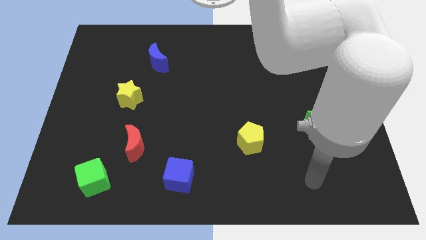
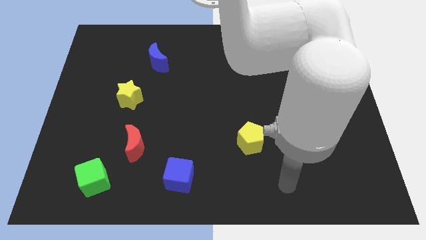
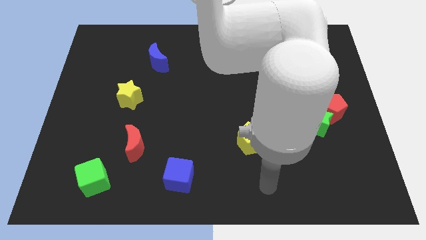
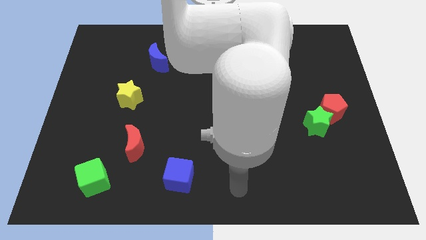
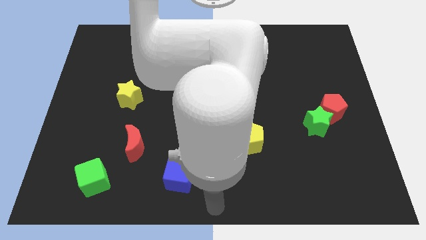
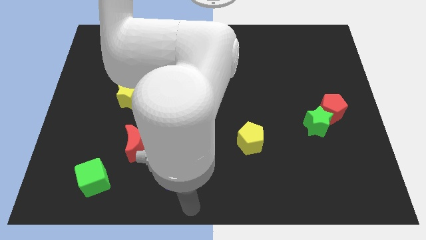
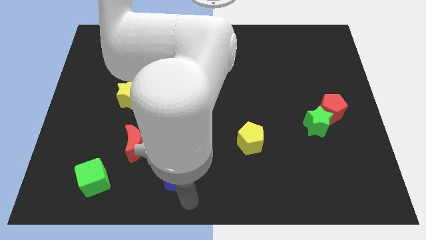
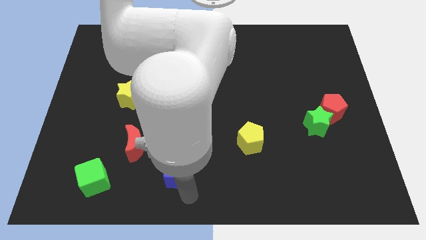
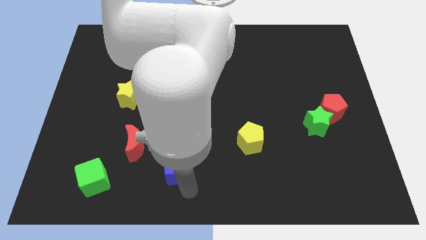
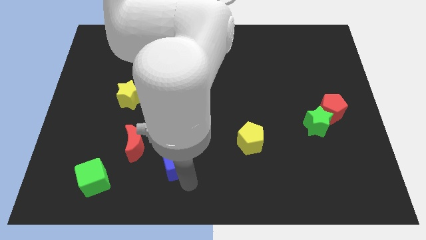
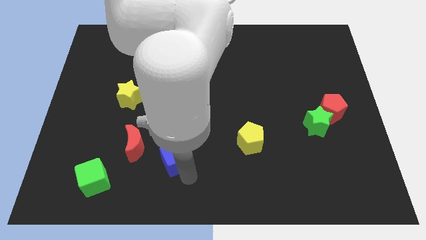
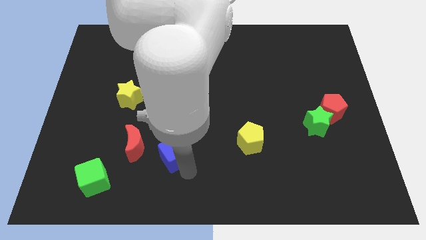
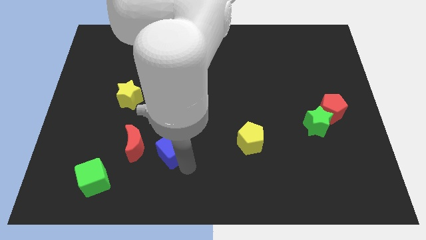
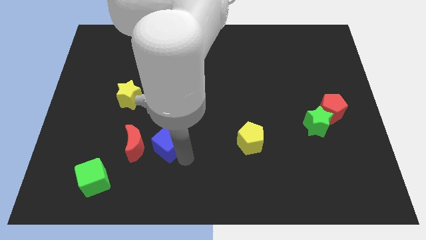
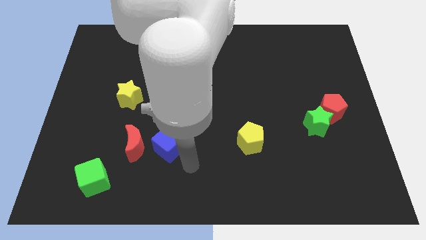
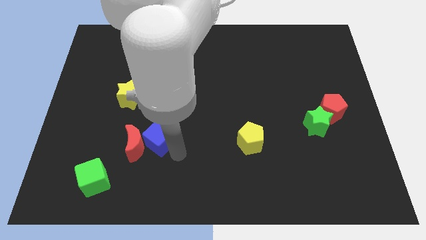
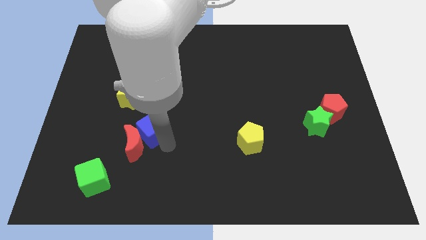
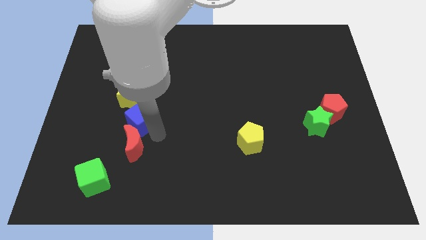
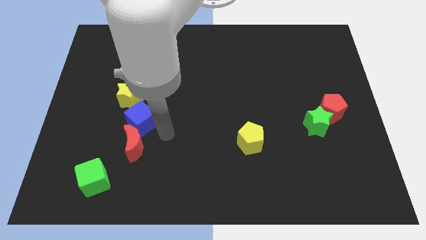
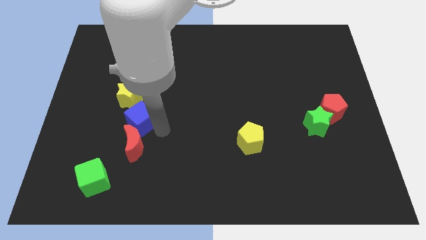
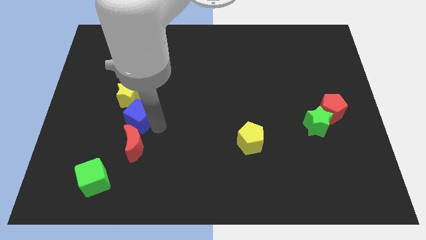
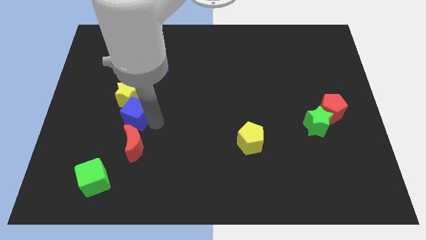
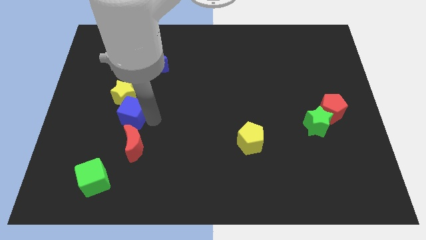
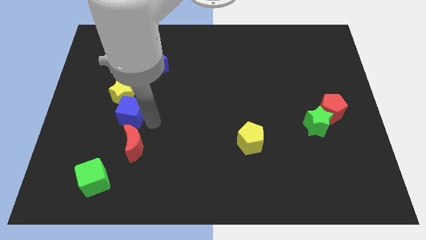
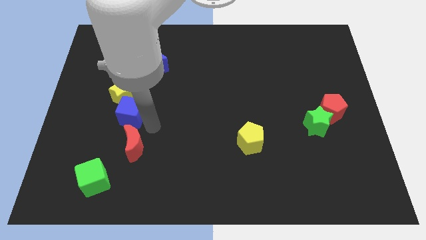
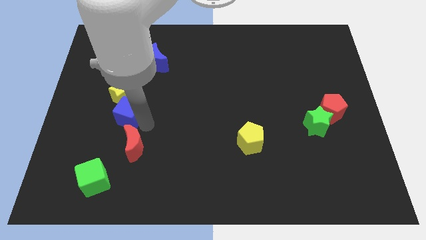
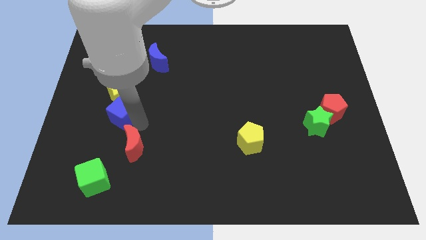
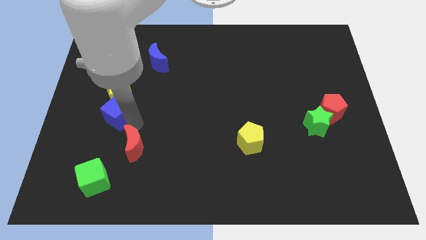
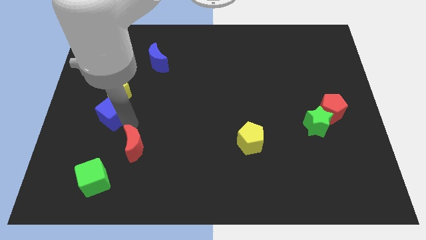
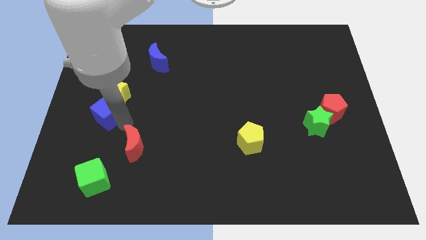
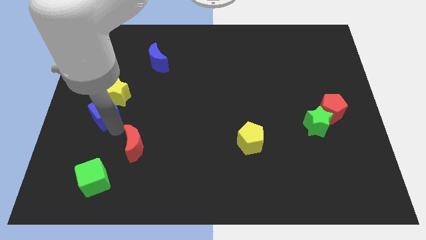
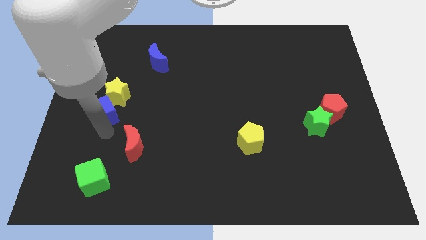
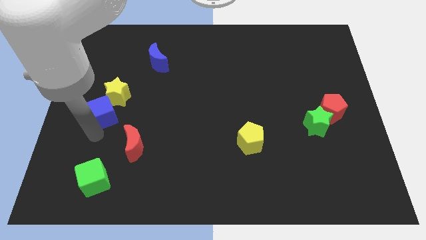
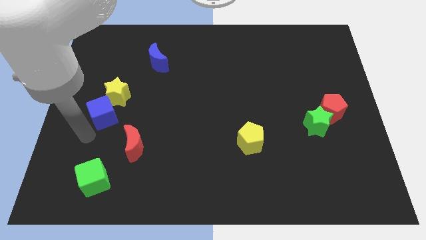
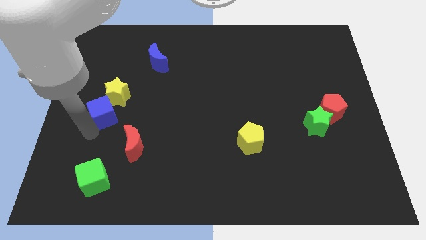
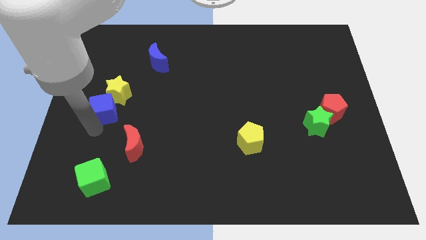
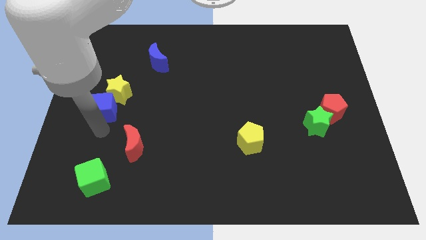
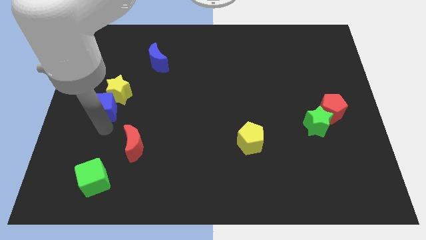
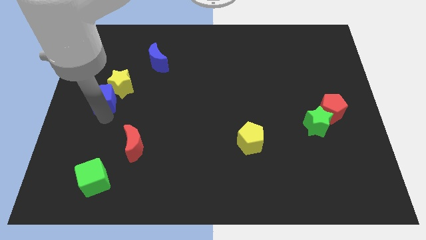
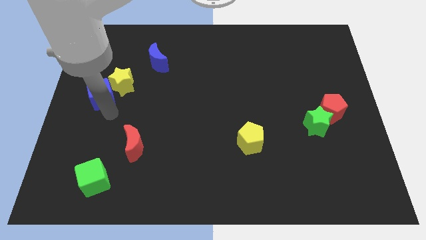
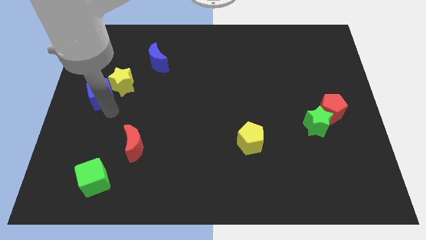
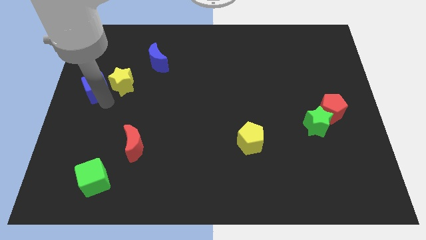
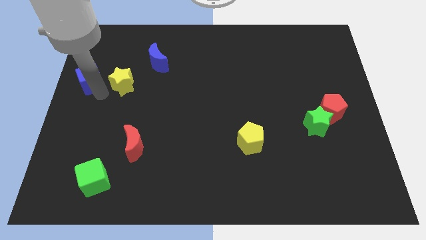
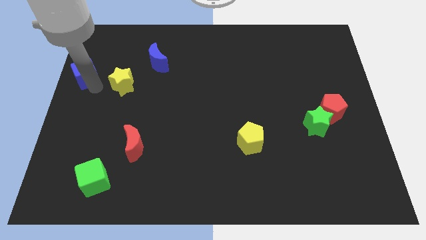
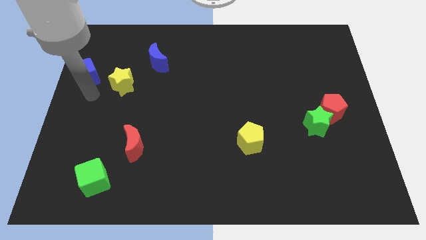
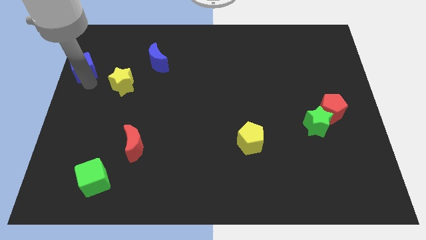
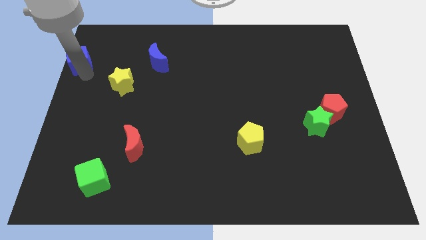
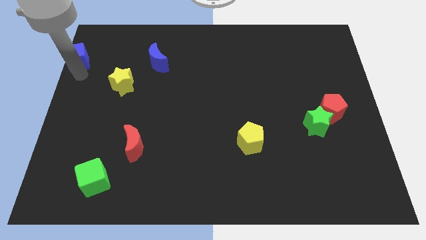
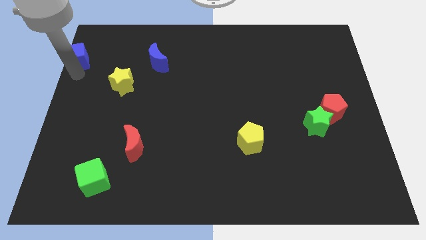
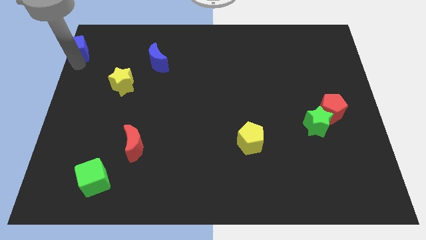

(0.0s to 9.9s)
slide the blue cube to the upper left corner

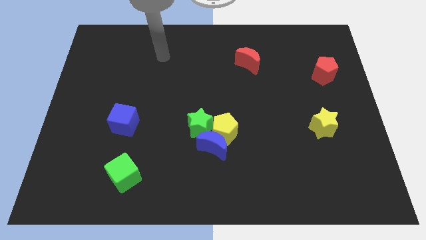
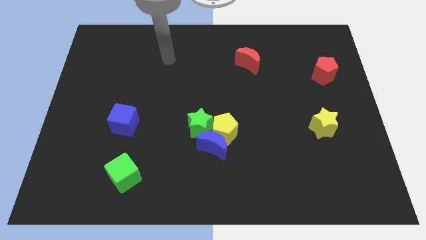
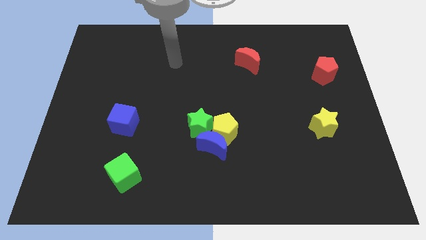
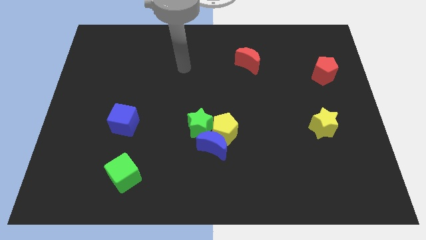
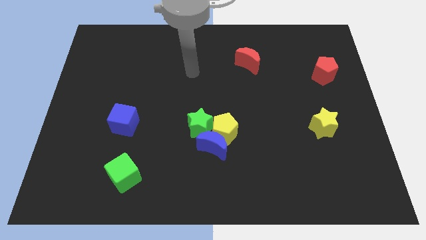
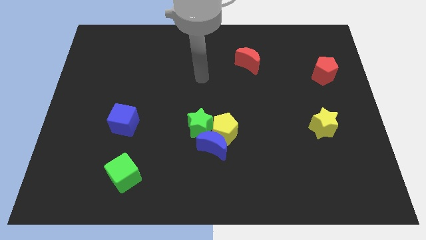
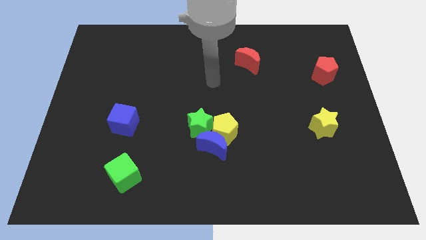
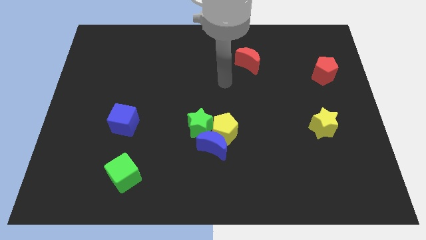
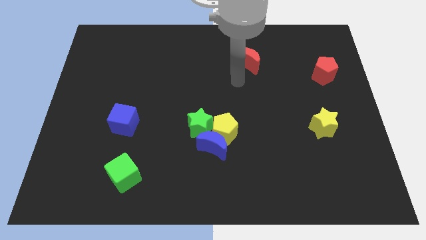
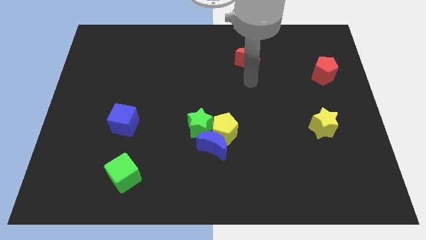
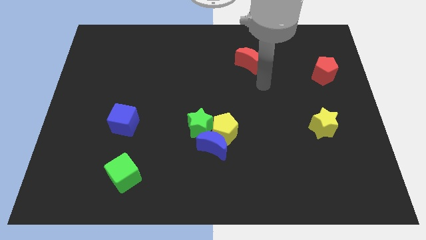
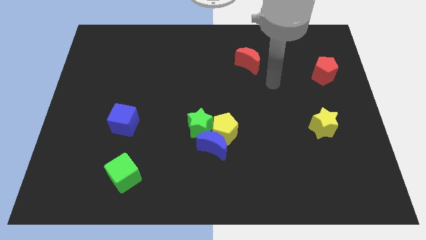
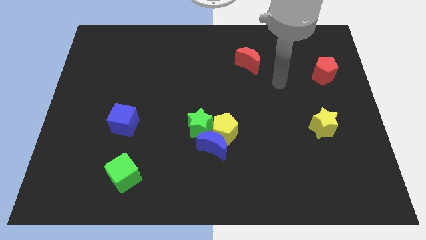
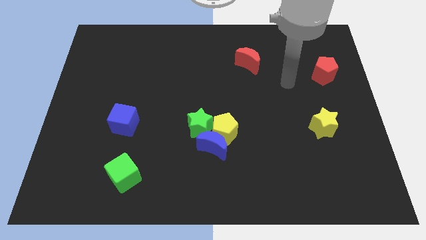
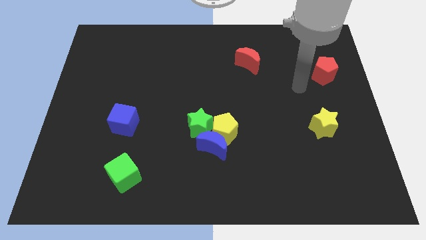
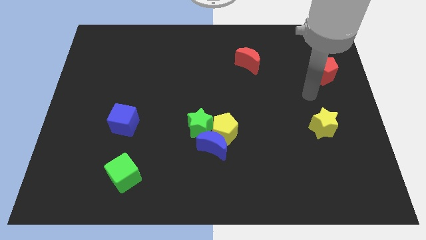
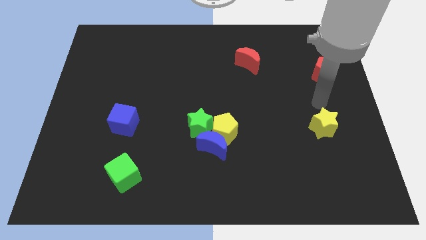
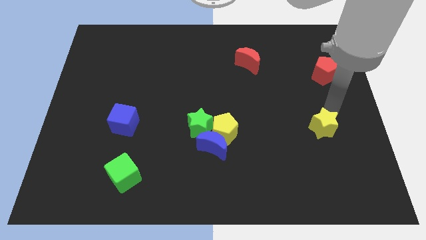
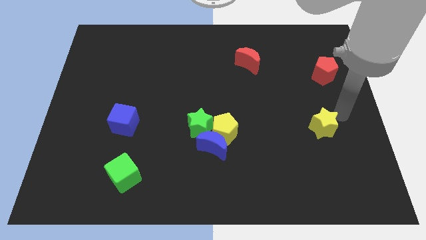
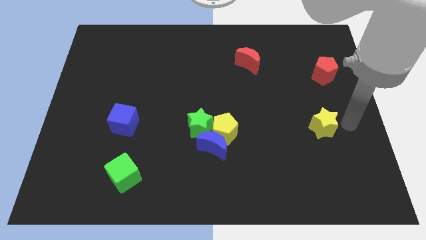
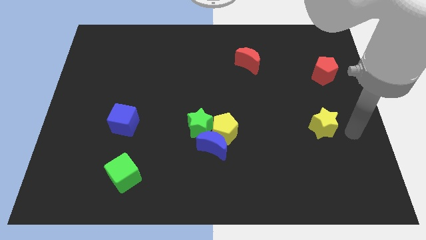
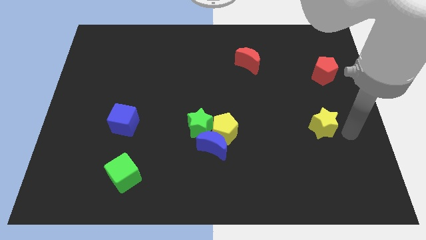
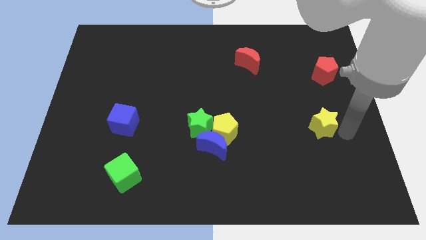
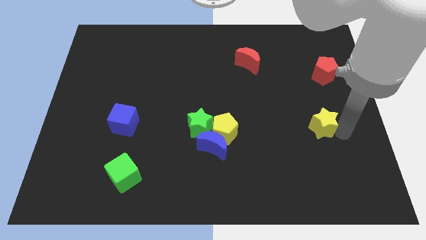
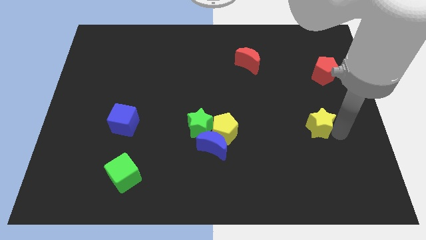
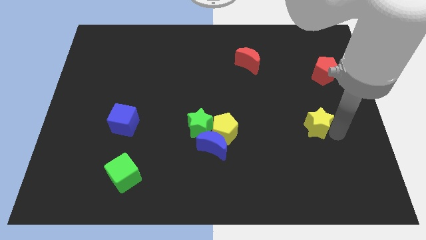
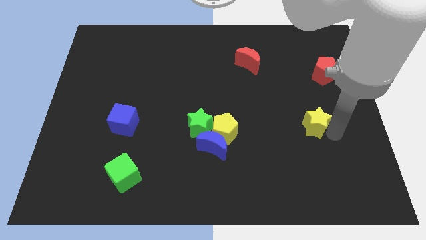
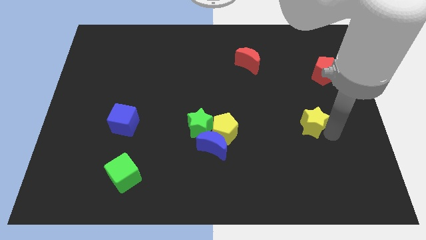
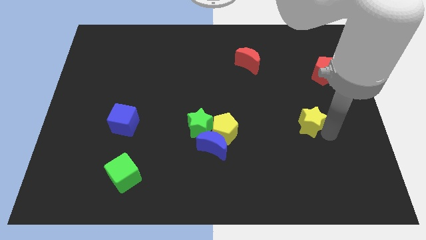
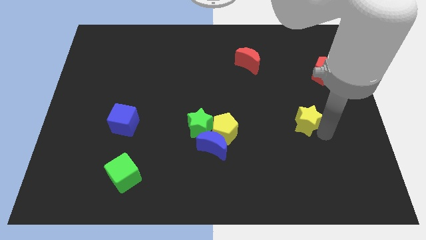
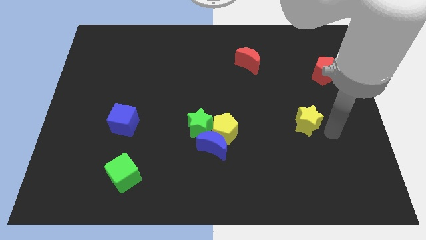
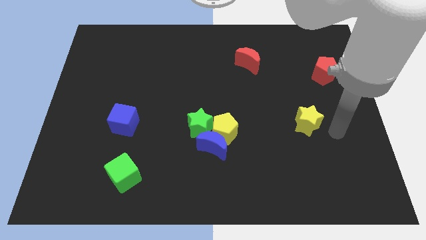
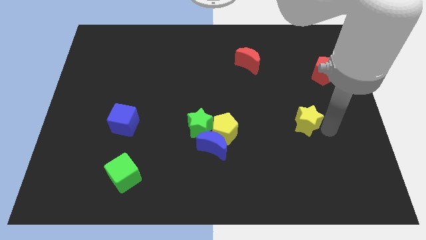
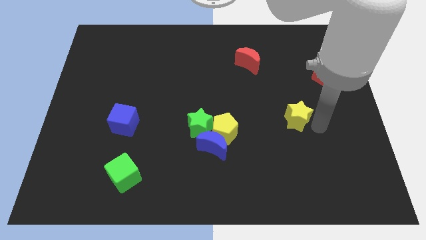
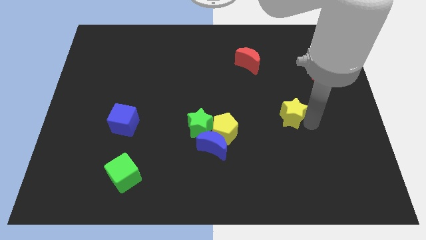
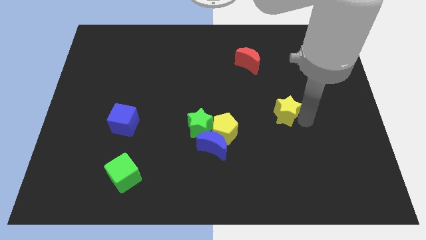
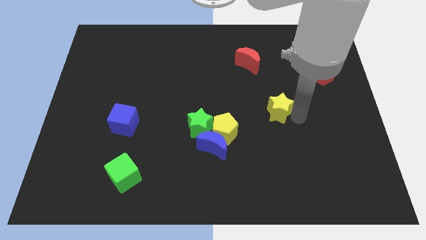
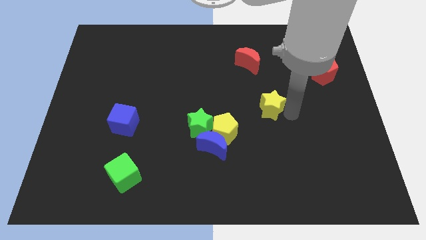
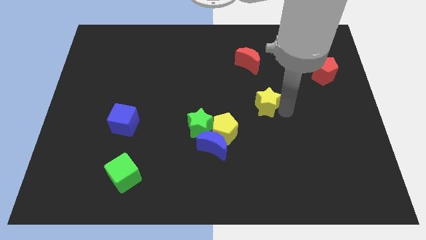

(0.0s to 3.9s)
slide the yellow star to the middle
